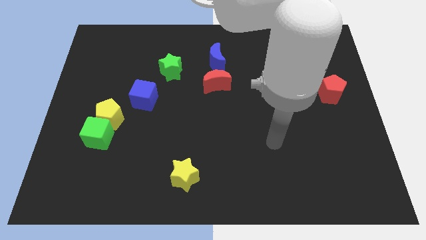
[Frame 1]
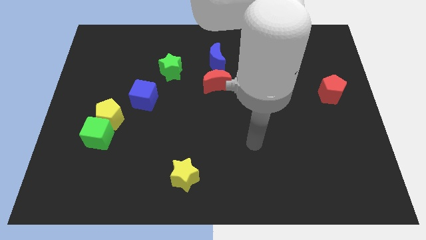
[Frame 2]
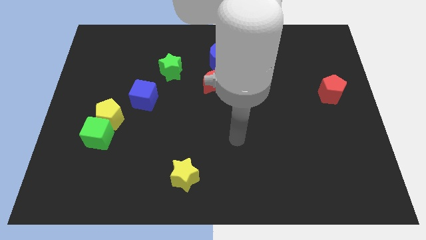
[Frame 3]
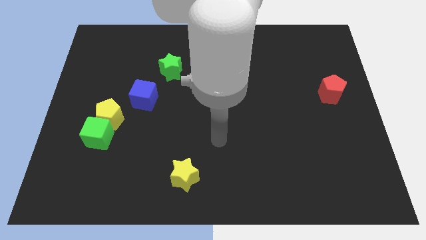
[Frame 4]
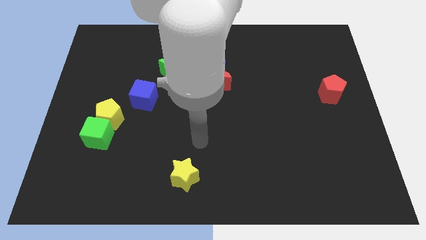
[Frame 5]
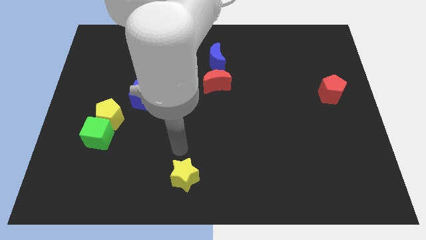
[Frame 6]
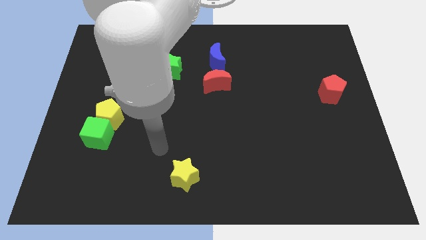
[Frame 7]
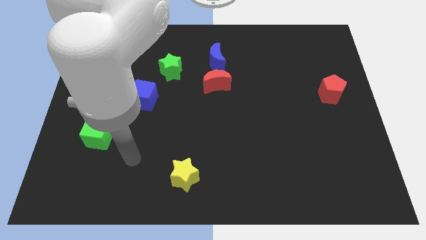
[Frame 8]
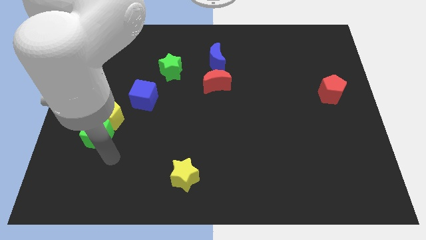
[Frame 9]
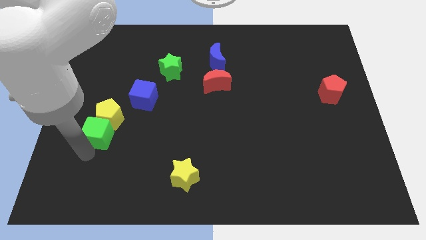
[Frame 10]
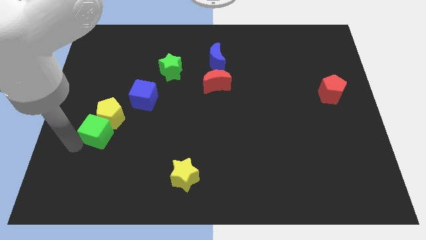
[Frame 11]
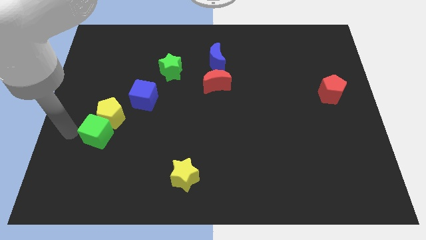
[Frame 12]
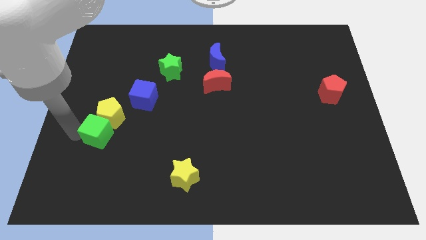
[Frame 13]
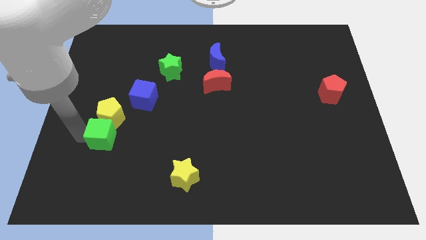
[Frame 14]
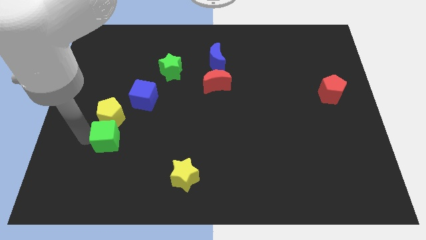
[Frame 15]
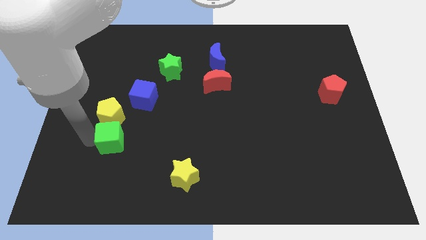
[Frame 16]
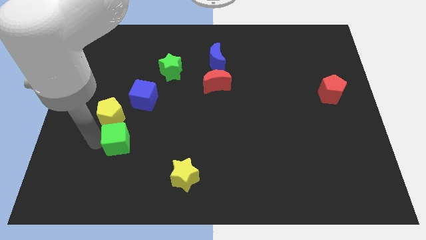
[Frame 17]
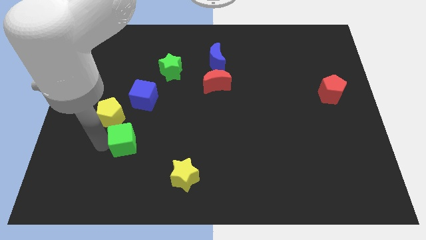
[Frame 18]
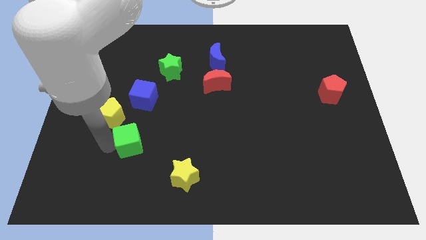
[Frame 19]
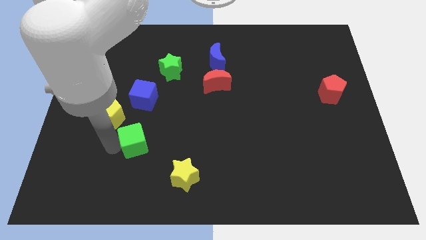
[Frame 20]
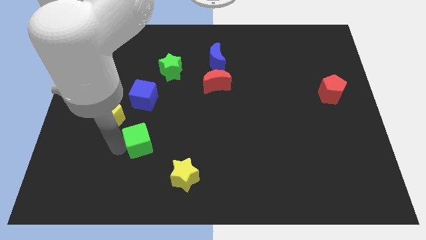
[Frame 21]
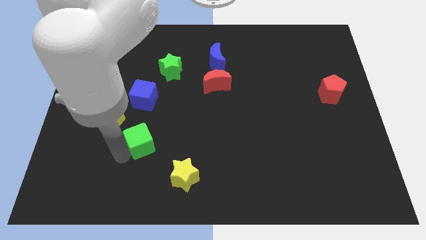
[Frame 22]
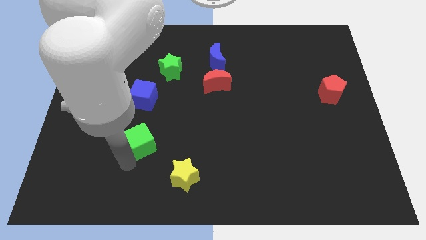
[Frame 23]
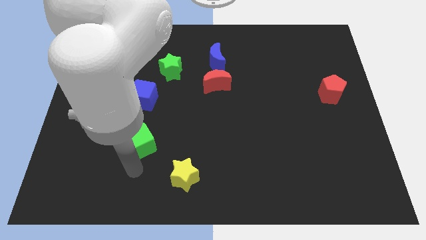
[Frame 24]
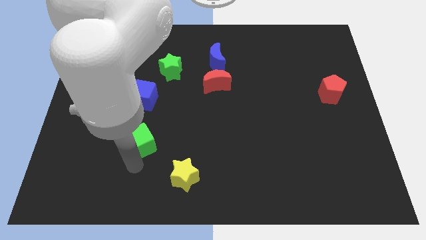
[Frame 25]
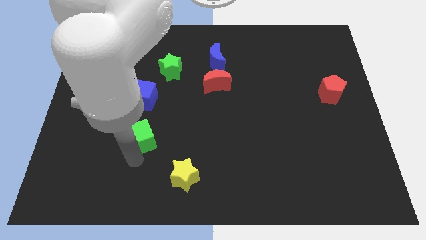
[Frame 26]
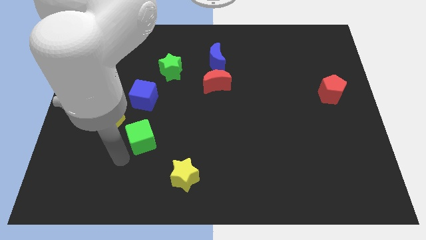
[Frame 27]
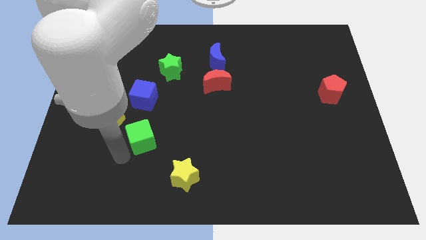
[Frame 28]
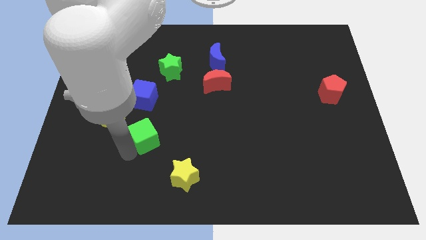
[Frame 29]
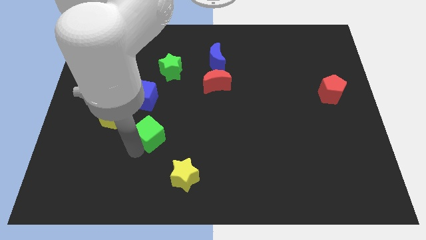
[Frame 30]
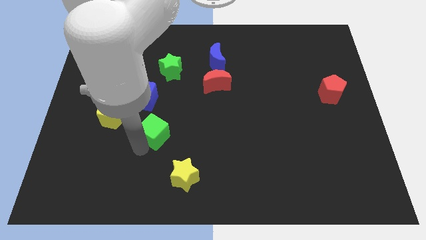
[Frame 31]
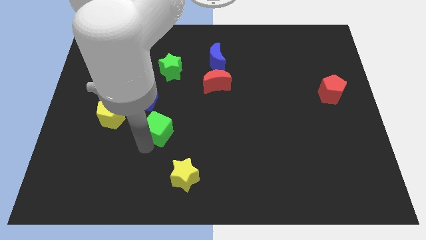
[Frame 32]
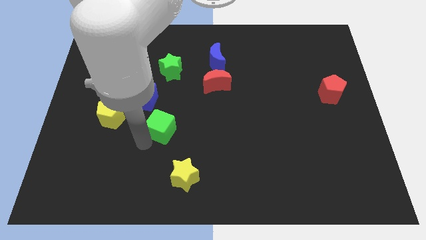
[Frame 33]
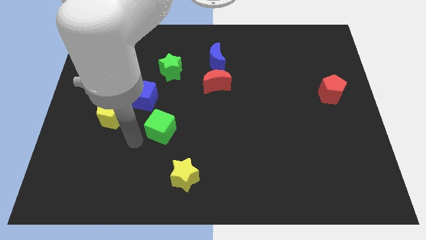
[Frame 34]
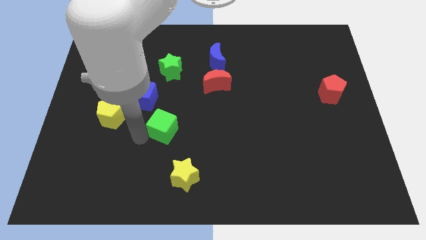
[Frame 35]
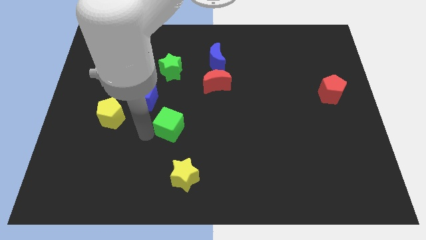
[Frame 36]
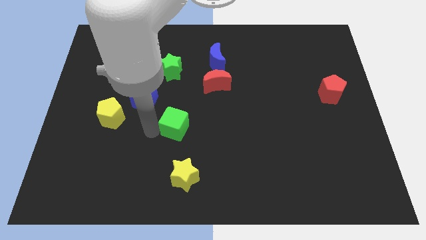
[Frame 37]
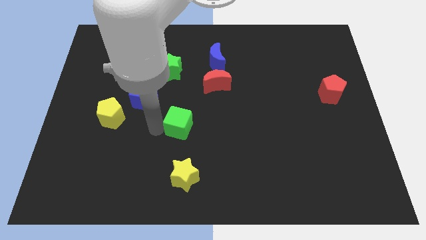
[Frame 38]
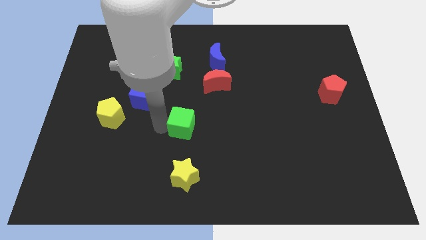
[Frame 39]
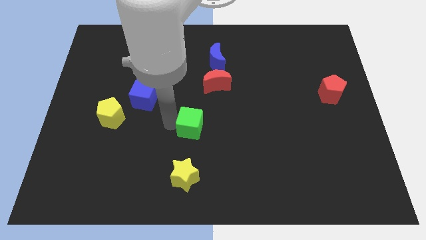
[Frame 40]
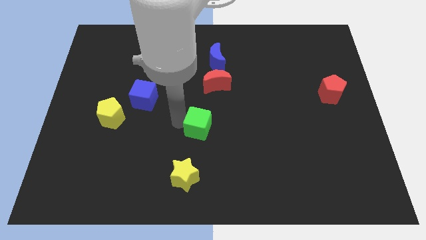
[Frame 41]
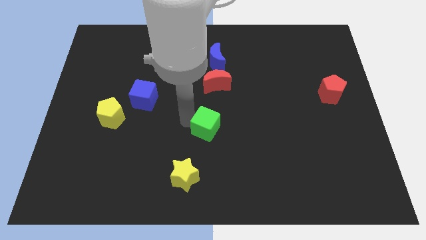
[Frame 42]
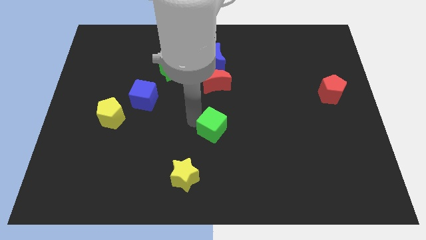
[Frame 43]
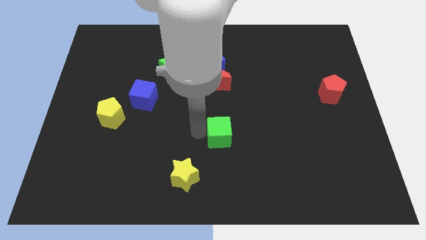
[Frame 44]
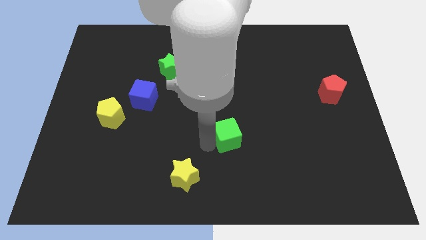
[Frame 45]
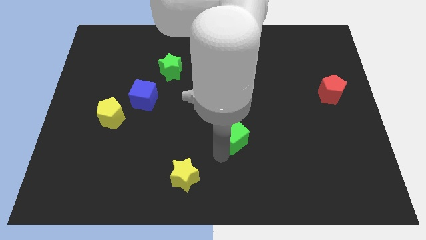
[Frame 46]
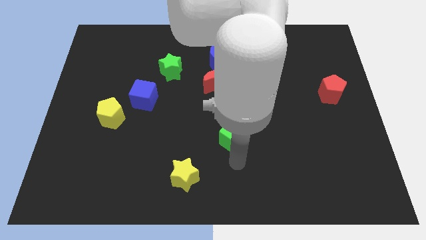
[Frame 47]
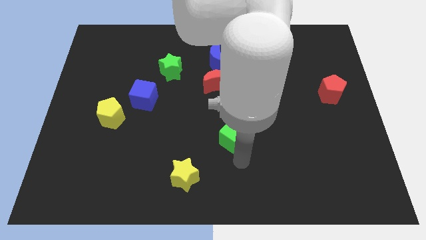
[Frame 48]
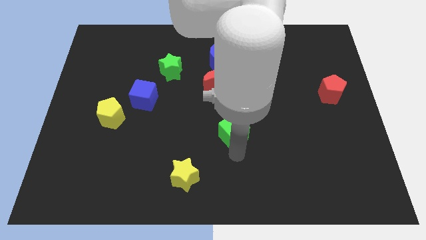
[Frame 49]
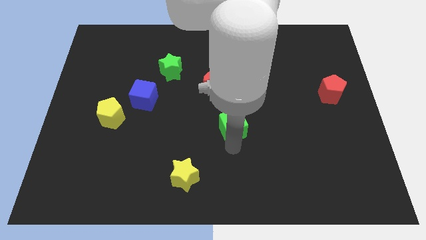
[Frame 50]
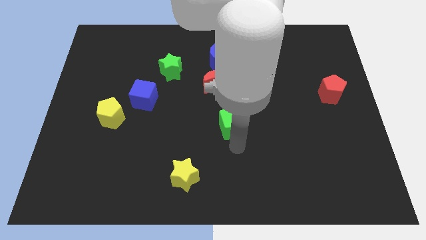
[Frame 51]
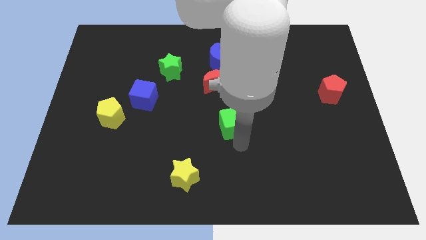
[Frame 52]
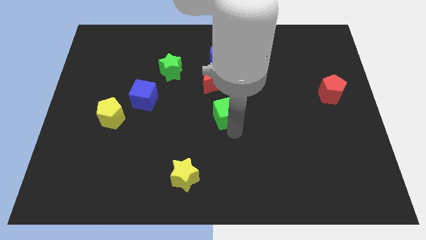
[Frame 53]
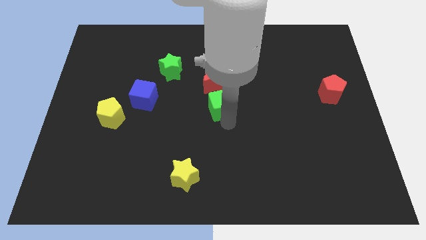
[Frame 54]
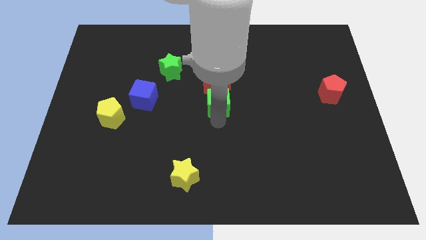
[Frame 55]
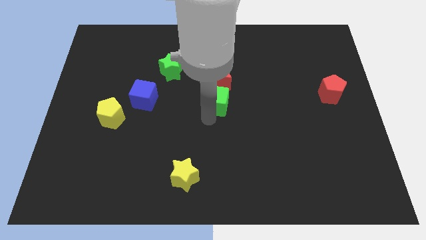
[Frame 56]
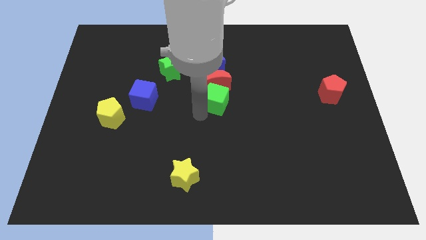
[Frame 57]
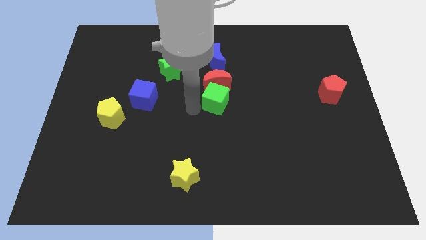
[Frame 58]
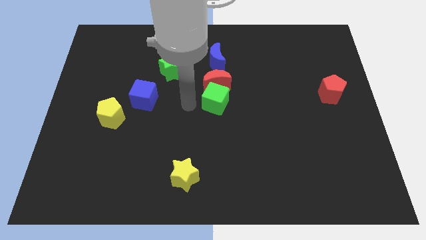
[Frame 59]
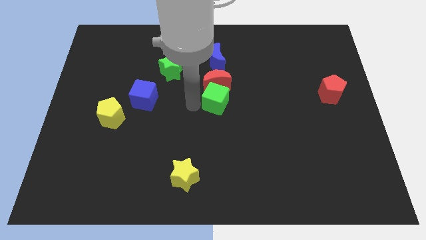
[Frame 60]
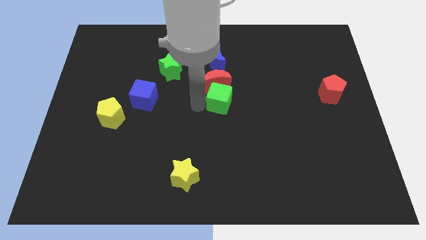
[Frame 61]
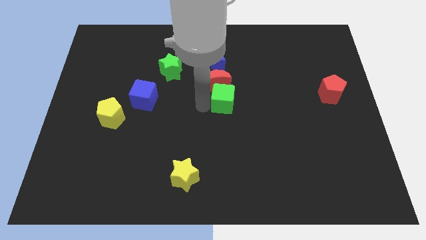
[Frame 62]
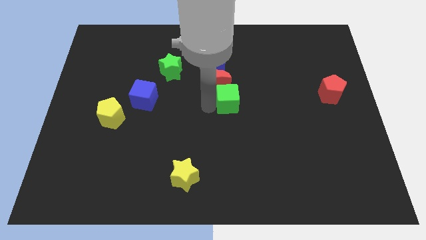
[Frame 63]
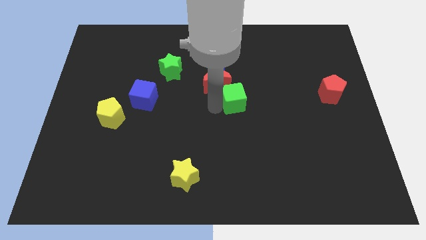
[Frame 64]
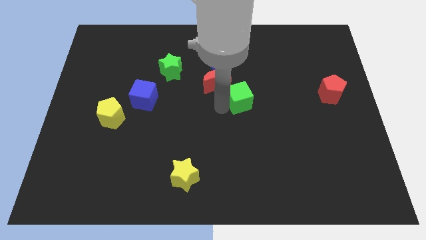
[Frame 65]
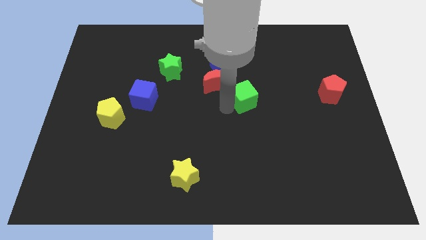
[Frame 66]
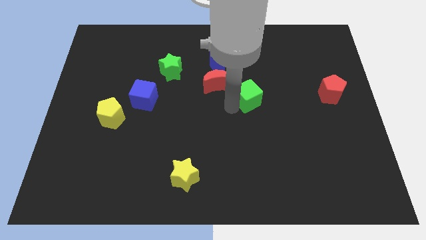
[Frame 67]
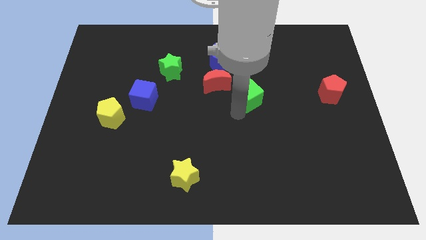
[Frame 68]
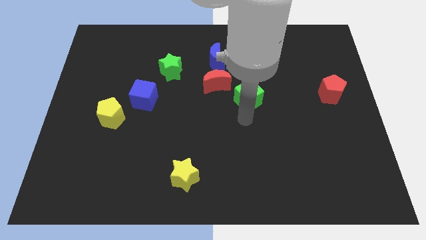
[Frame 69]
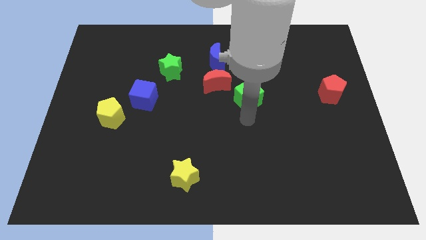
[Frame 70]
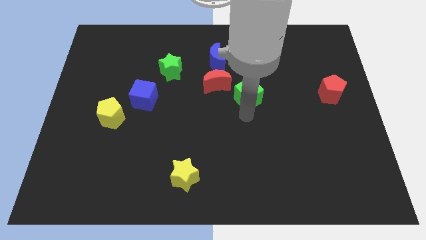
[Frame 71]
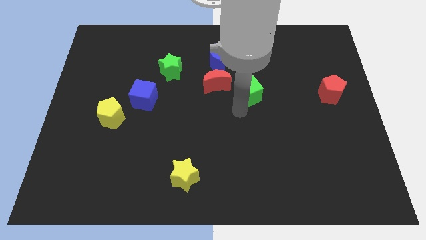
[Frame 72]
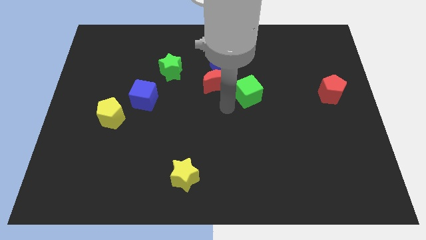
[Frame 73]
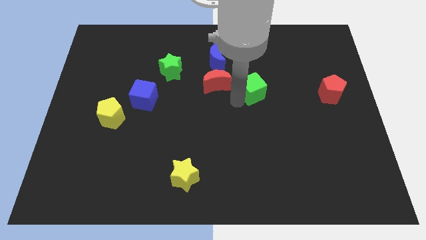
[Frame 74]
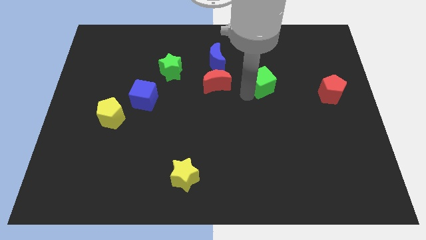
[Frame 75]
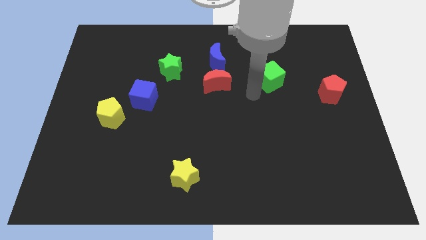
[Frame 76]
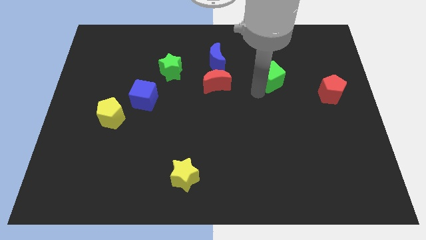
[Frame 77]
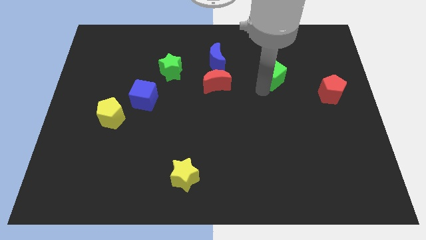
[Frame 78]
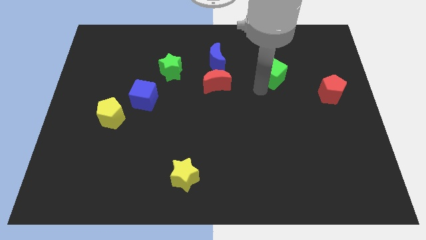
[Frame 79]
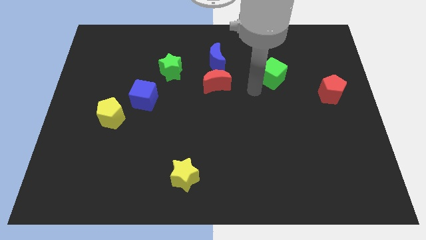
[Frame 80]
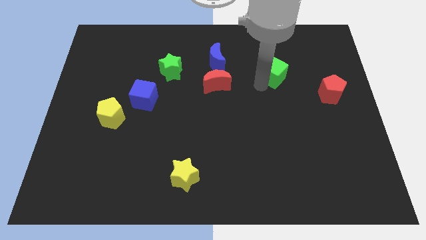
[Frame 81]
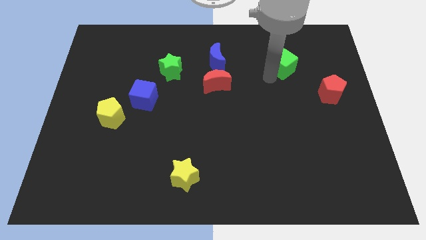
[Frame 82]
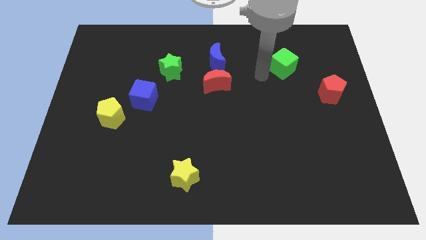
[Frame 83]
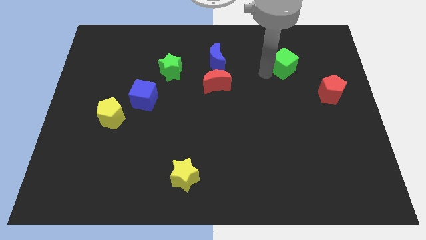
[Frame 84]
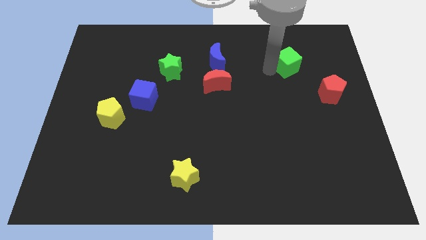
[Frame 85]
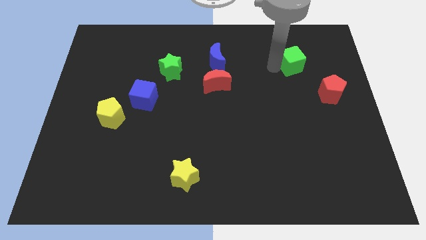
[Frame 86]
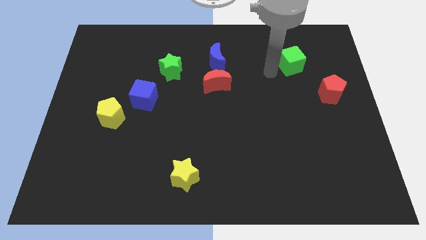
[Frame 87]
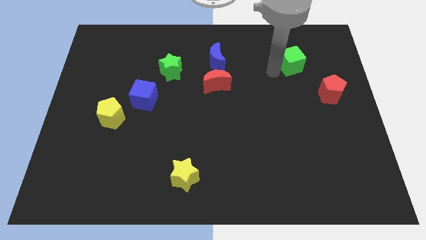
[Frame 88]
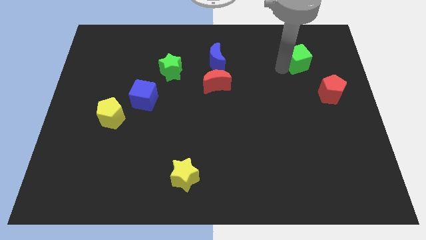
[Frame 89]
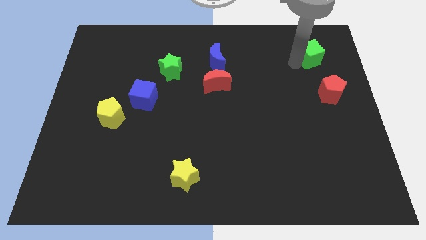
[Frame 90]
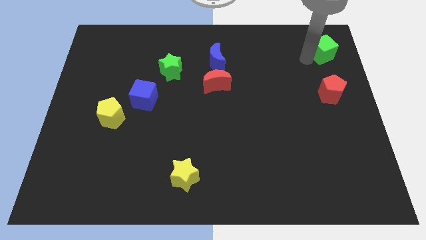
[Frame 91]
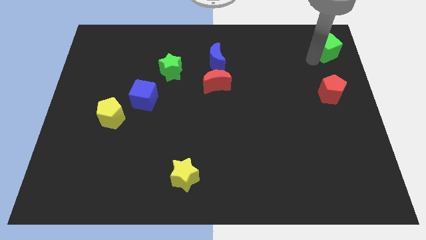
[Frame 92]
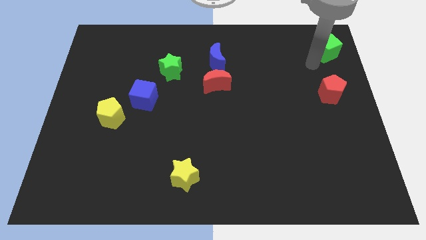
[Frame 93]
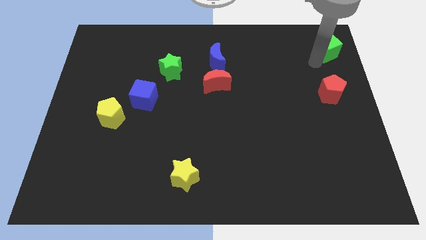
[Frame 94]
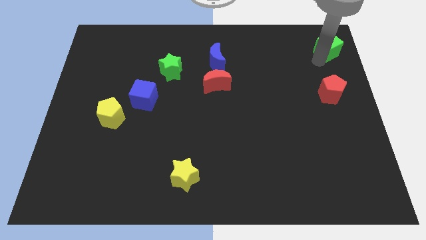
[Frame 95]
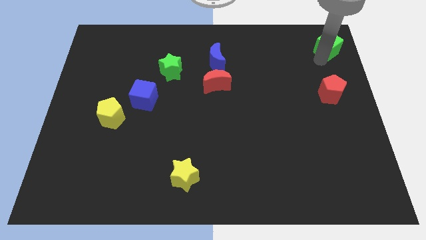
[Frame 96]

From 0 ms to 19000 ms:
put the green cube to the top right
